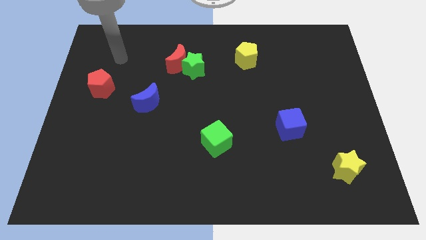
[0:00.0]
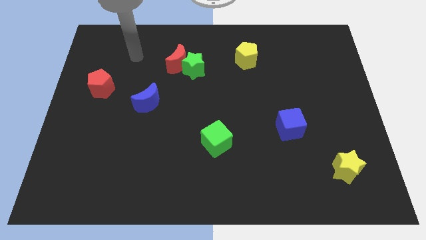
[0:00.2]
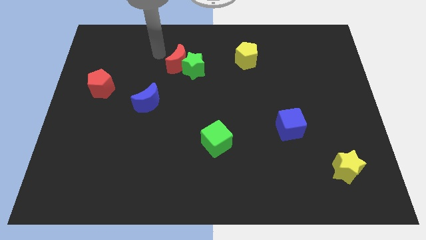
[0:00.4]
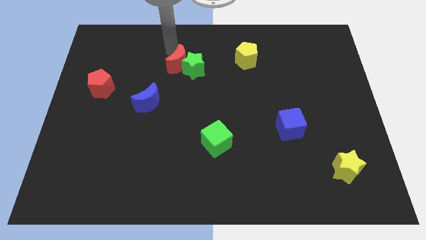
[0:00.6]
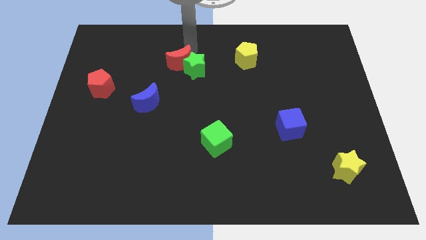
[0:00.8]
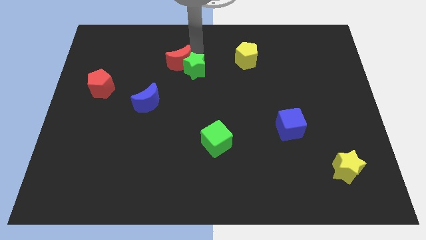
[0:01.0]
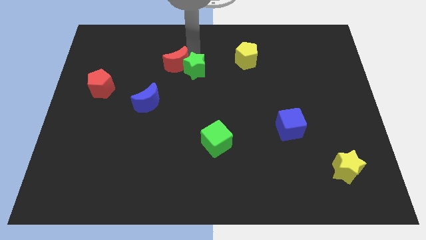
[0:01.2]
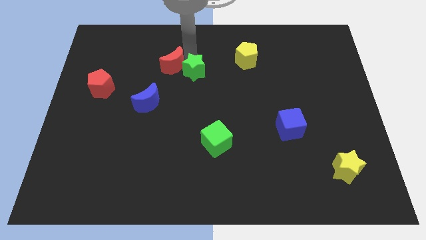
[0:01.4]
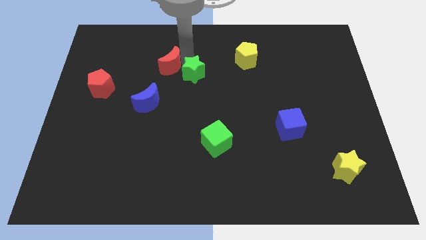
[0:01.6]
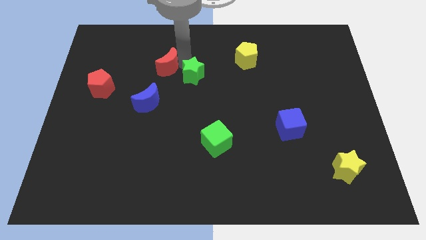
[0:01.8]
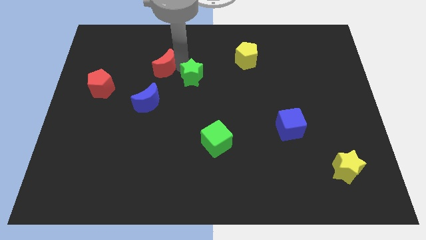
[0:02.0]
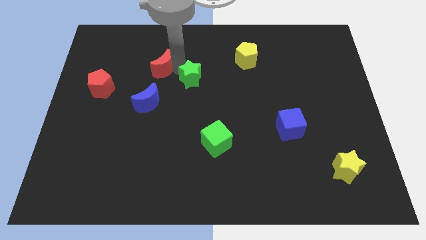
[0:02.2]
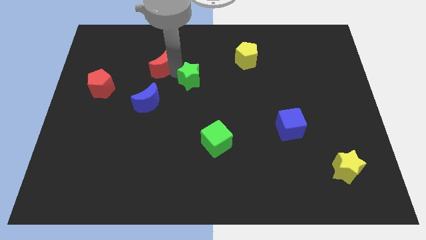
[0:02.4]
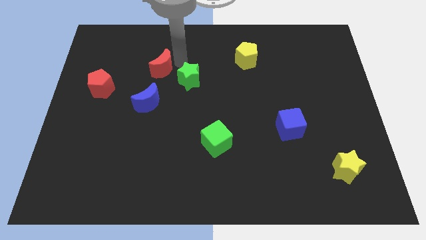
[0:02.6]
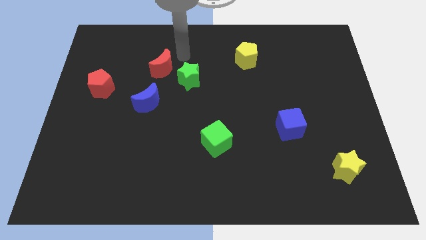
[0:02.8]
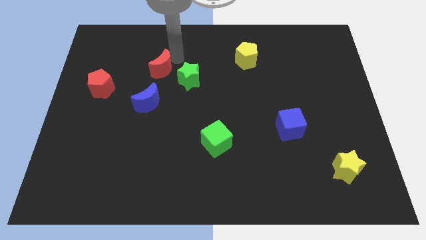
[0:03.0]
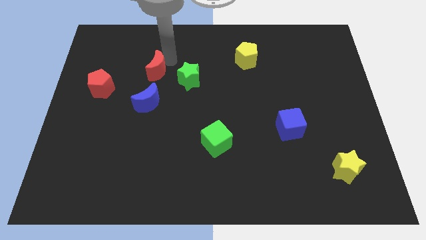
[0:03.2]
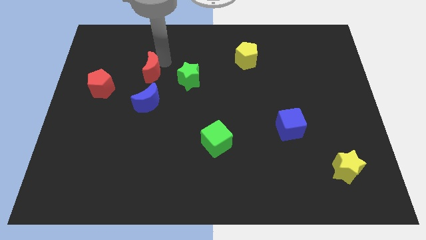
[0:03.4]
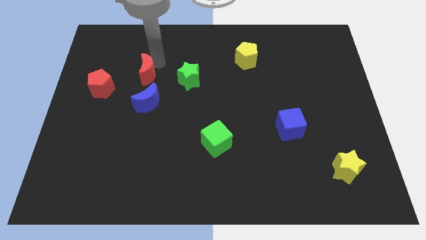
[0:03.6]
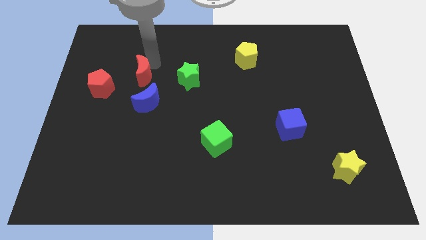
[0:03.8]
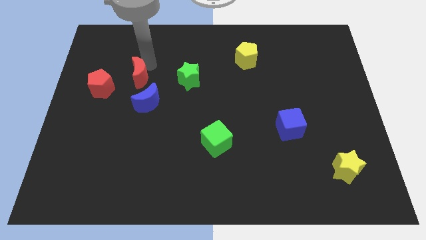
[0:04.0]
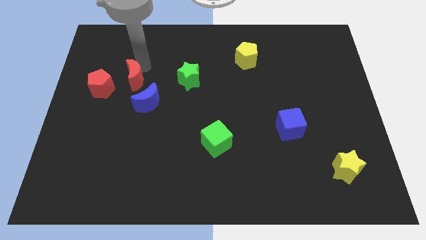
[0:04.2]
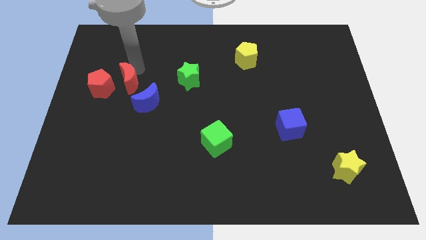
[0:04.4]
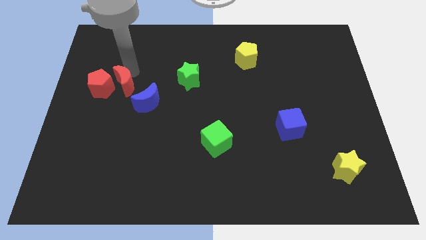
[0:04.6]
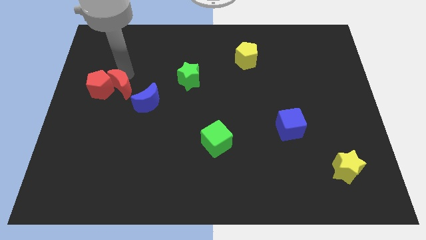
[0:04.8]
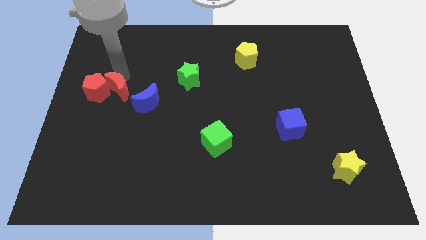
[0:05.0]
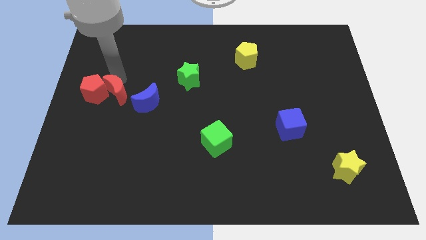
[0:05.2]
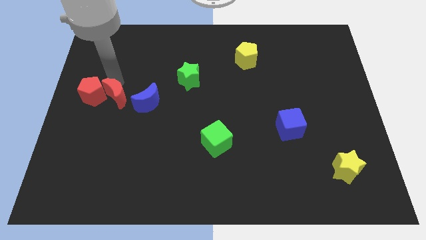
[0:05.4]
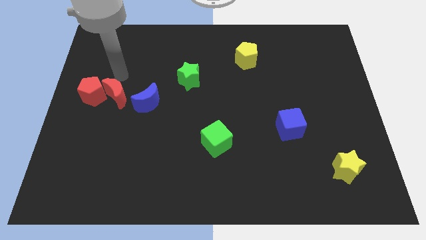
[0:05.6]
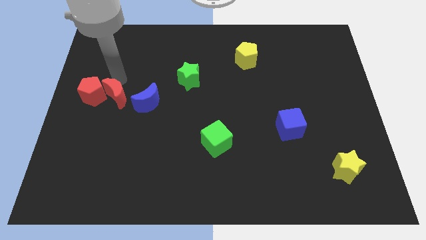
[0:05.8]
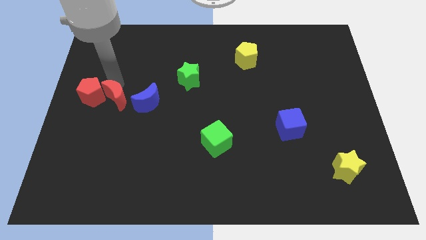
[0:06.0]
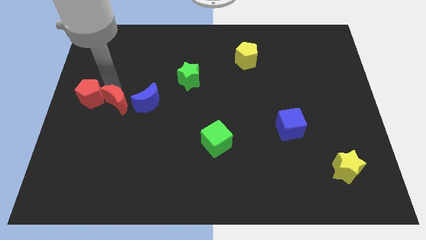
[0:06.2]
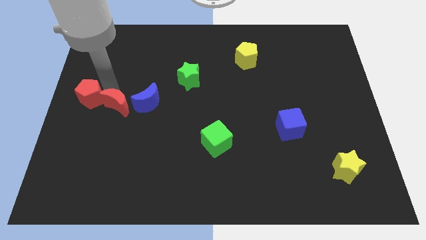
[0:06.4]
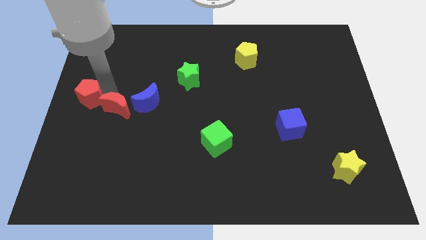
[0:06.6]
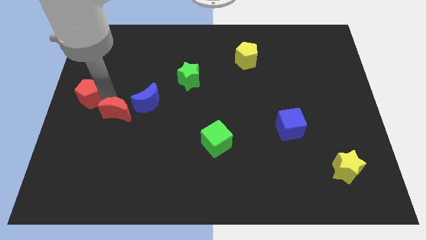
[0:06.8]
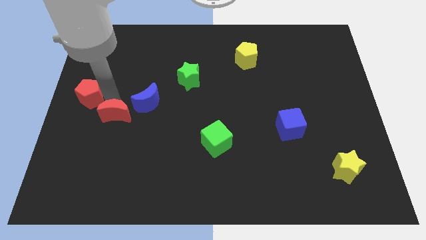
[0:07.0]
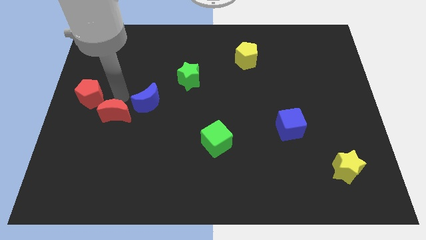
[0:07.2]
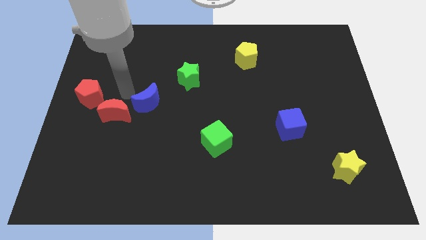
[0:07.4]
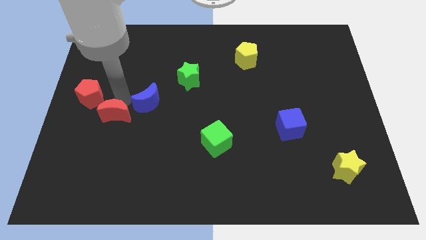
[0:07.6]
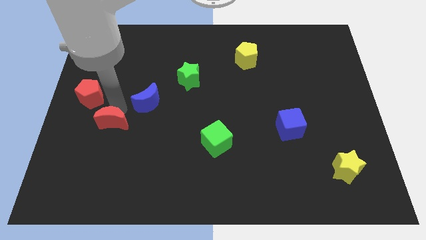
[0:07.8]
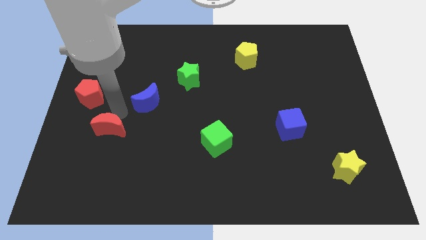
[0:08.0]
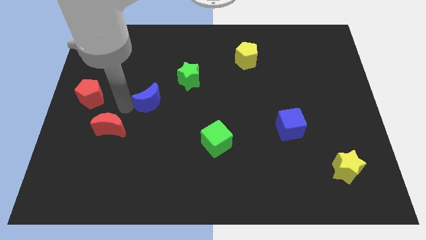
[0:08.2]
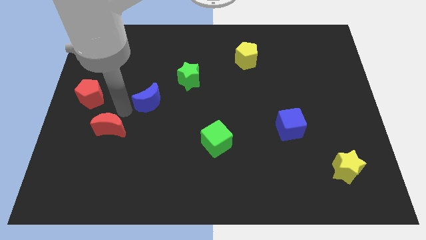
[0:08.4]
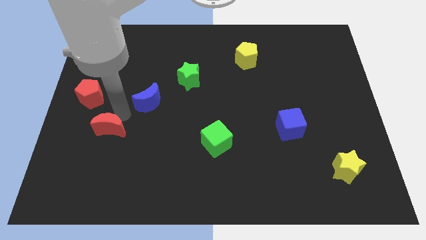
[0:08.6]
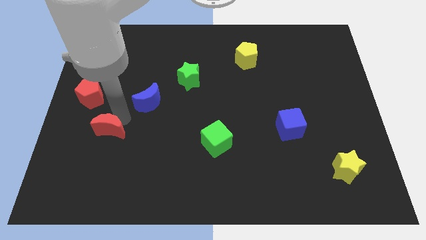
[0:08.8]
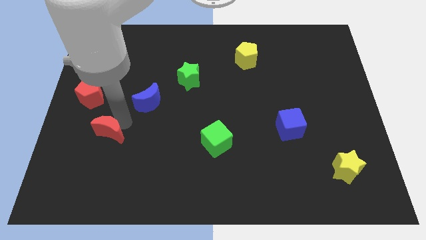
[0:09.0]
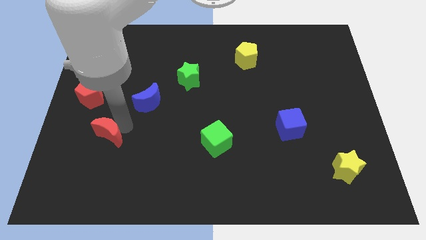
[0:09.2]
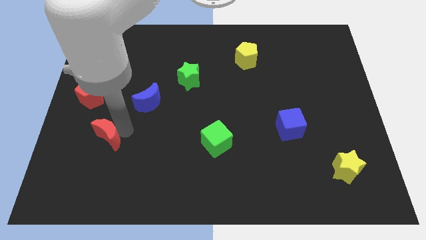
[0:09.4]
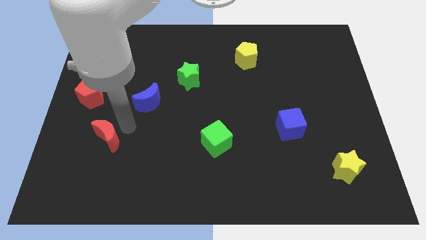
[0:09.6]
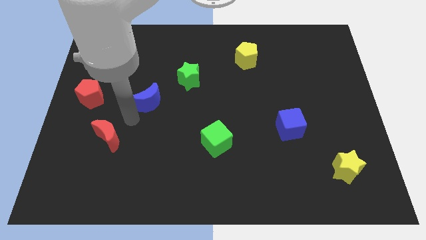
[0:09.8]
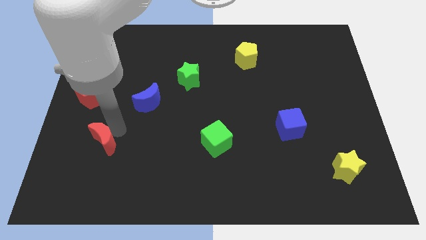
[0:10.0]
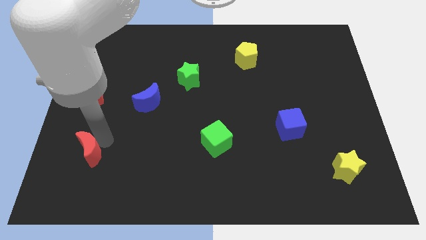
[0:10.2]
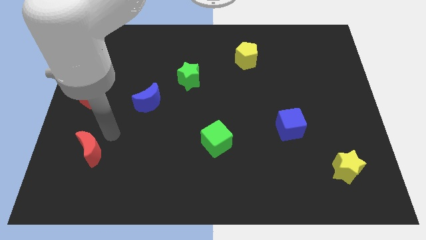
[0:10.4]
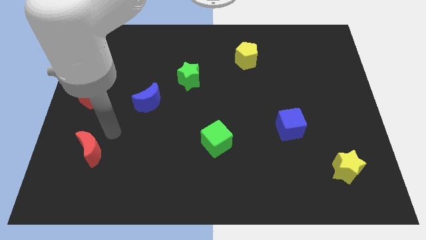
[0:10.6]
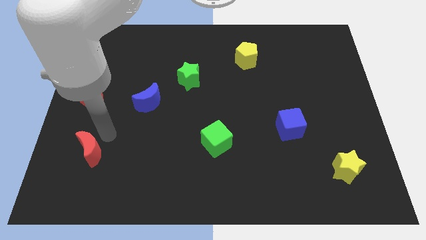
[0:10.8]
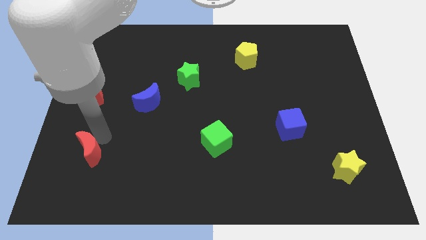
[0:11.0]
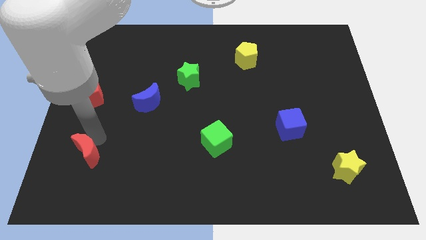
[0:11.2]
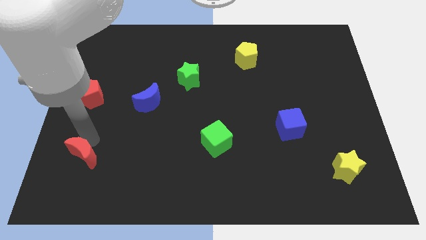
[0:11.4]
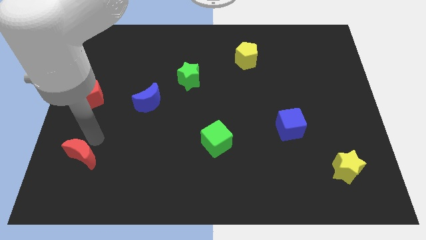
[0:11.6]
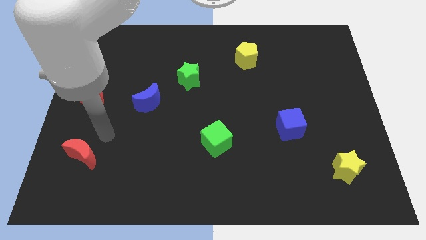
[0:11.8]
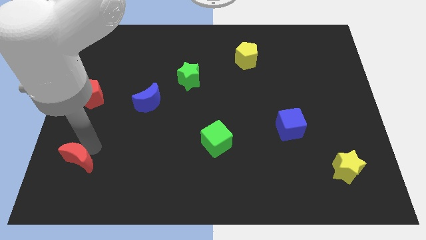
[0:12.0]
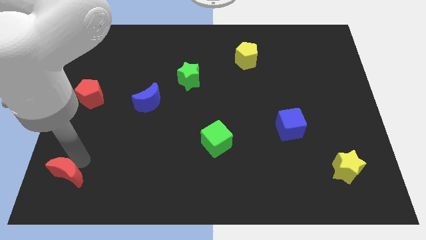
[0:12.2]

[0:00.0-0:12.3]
move the red moon to the bottom left

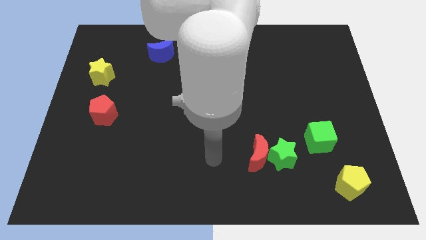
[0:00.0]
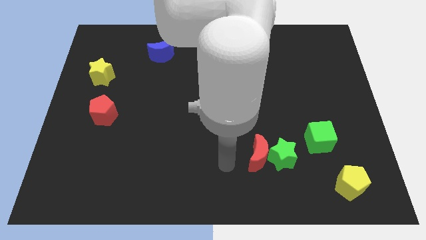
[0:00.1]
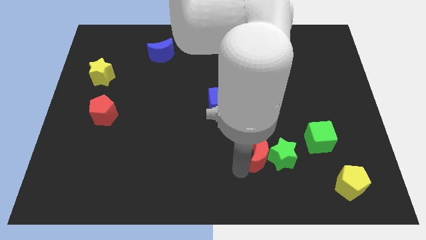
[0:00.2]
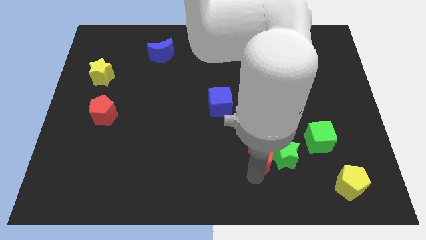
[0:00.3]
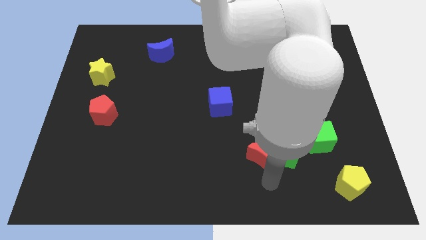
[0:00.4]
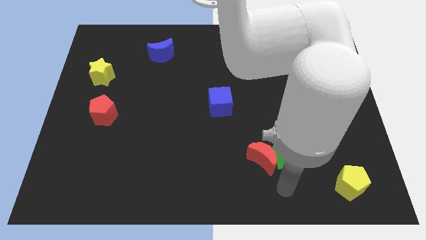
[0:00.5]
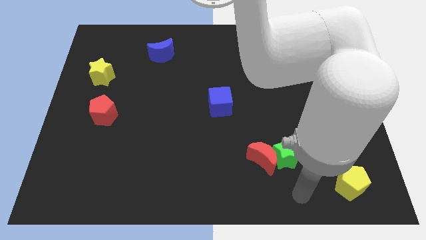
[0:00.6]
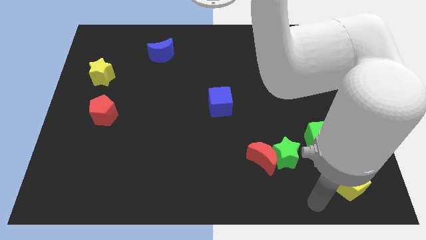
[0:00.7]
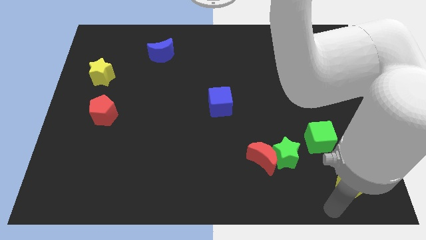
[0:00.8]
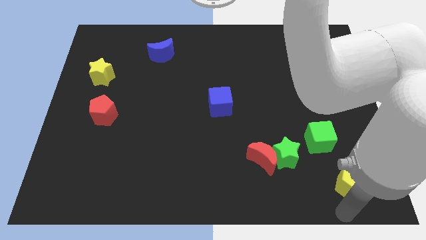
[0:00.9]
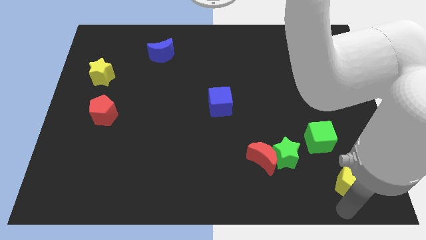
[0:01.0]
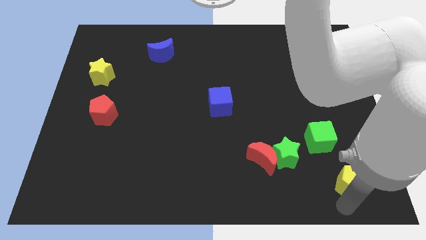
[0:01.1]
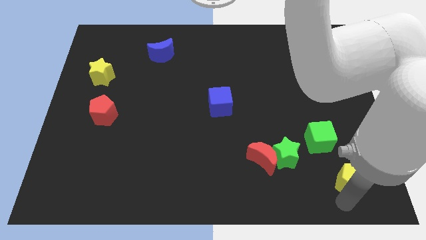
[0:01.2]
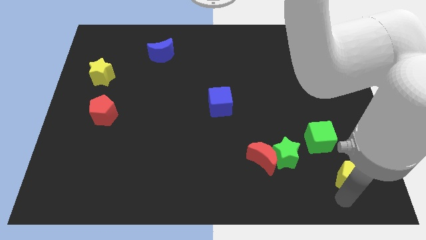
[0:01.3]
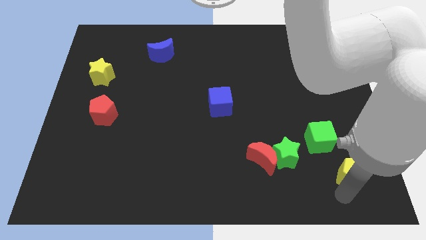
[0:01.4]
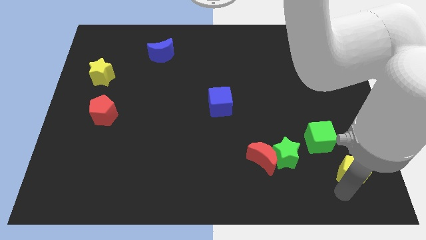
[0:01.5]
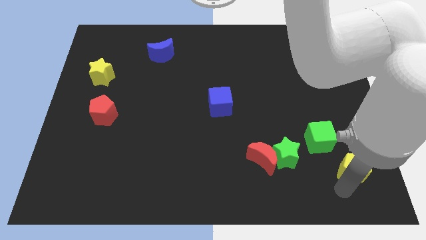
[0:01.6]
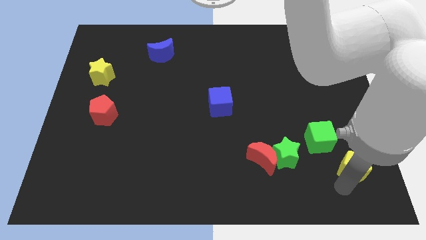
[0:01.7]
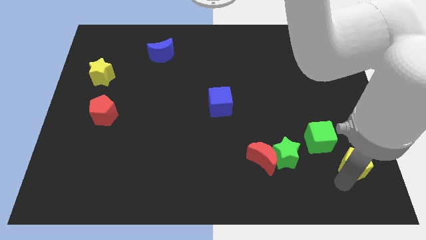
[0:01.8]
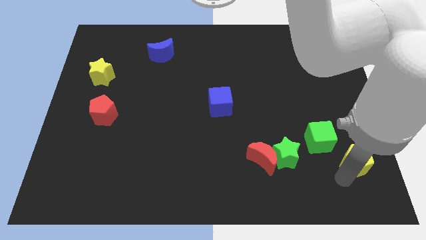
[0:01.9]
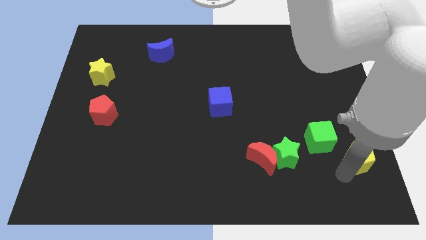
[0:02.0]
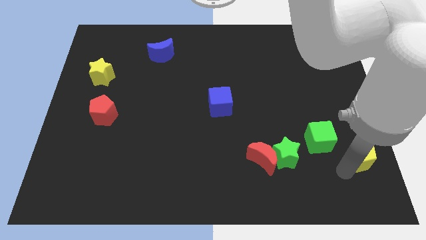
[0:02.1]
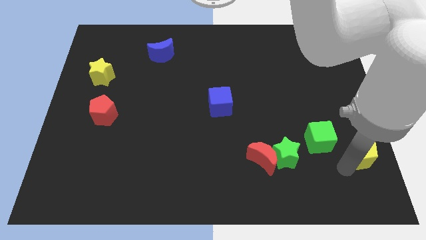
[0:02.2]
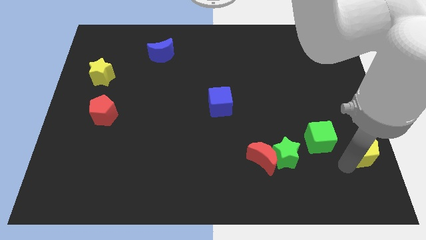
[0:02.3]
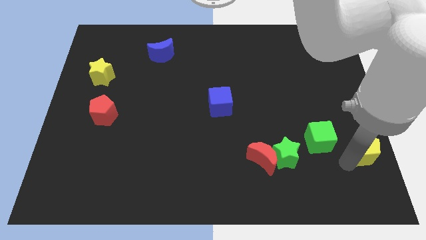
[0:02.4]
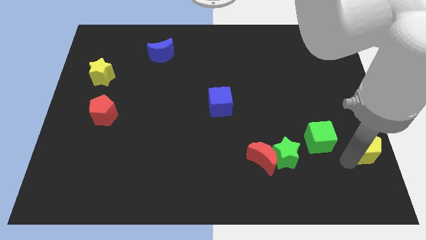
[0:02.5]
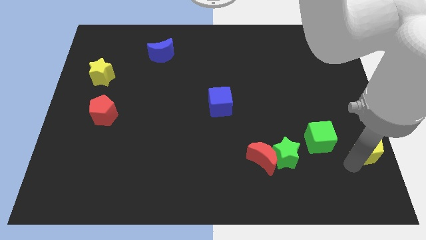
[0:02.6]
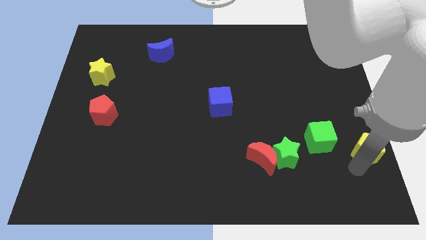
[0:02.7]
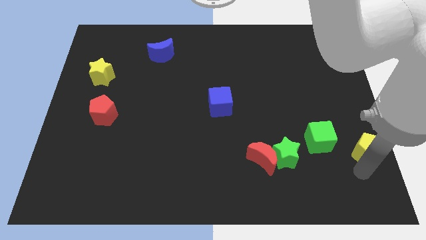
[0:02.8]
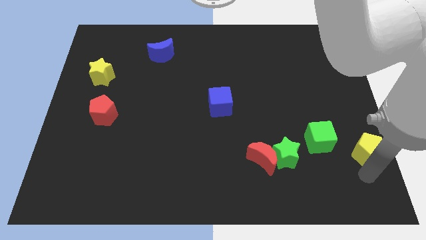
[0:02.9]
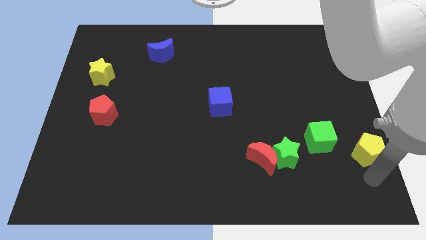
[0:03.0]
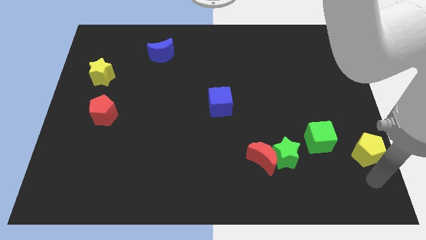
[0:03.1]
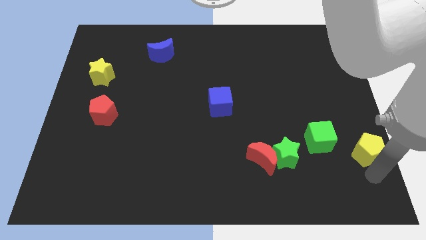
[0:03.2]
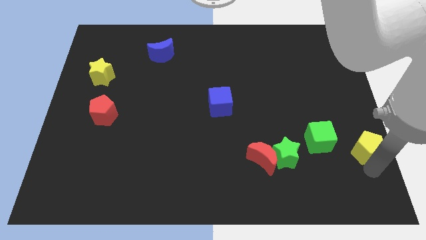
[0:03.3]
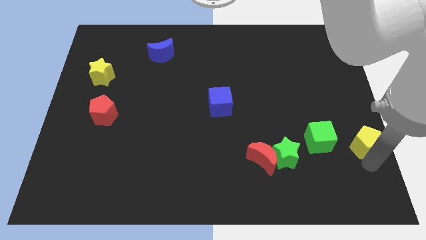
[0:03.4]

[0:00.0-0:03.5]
put the yellow pentagon to the right side of the board
